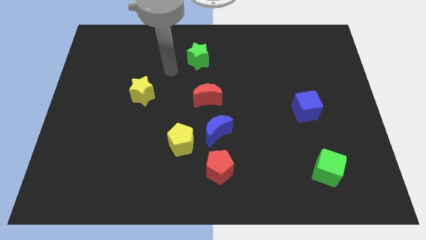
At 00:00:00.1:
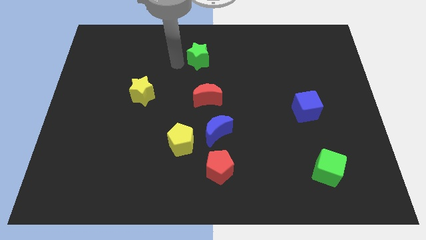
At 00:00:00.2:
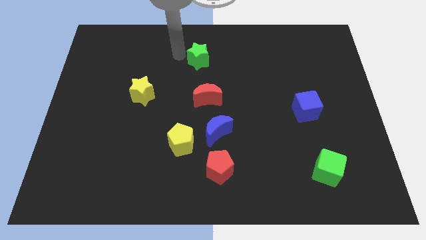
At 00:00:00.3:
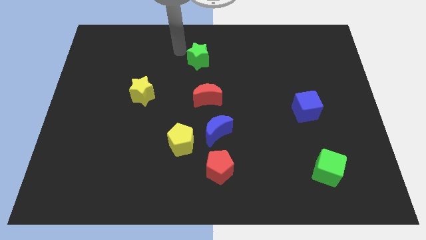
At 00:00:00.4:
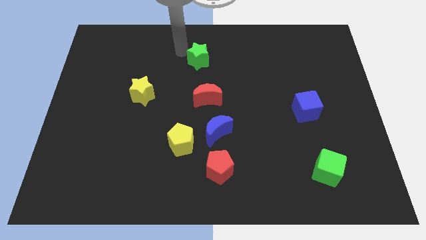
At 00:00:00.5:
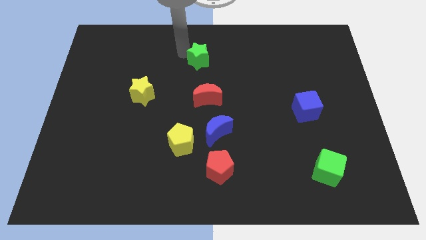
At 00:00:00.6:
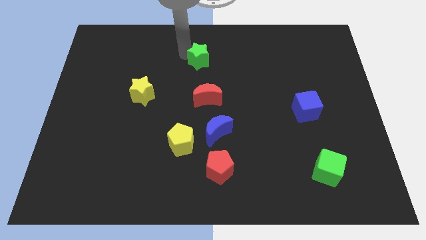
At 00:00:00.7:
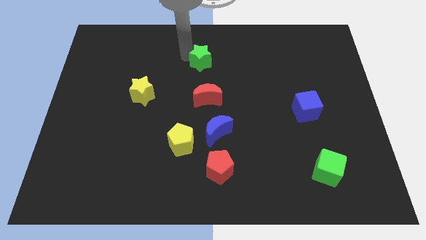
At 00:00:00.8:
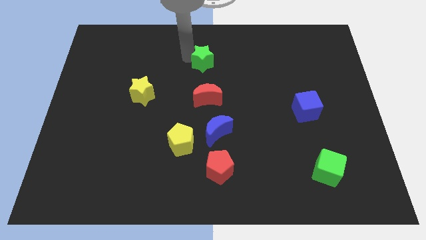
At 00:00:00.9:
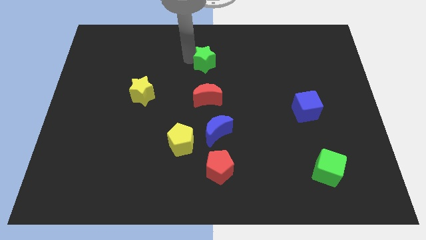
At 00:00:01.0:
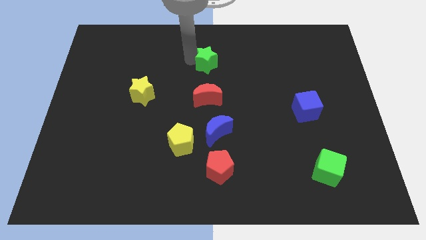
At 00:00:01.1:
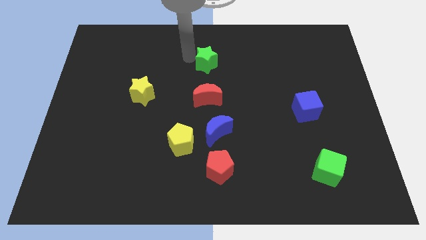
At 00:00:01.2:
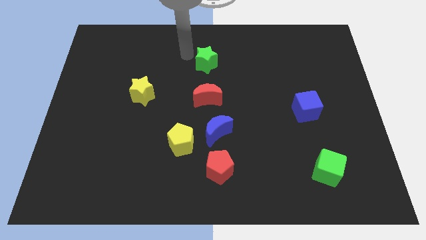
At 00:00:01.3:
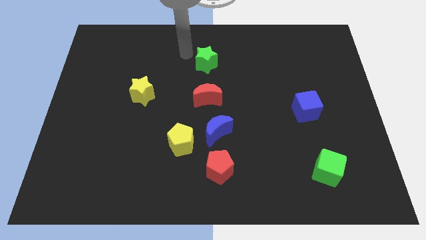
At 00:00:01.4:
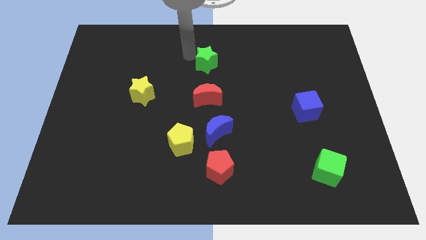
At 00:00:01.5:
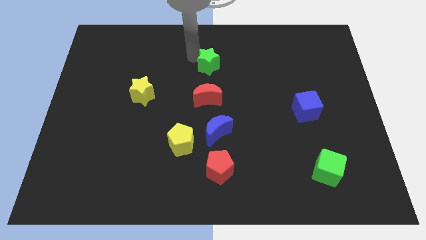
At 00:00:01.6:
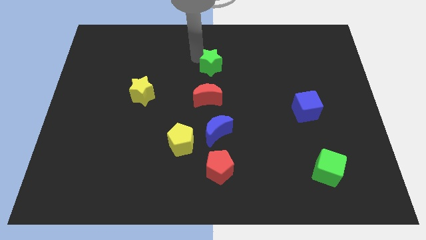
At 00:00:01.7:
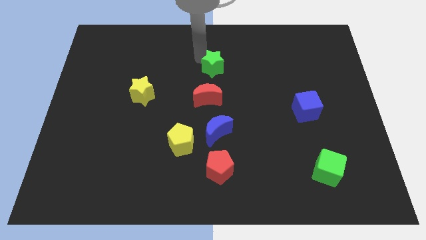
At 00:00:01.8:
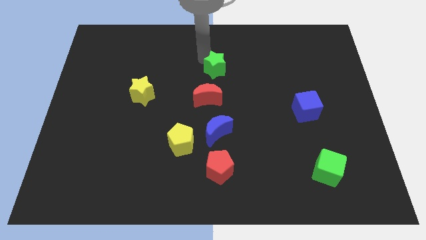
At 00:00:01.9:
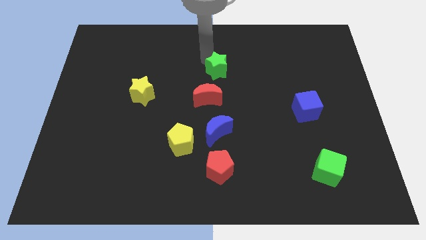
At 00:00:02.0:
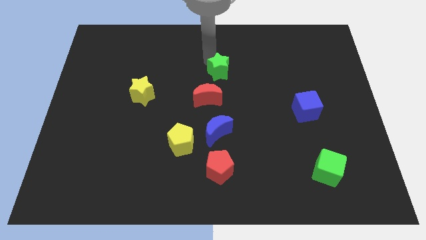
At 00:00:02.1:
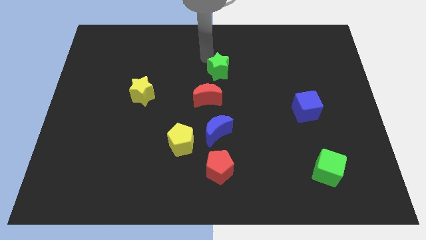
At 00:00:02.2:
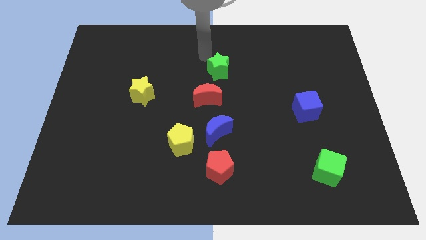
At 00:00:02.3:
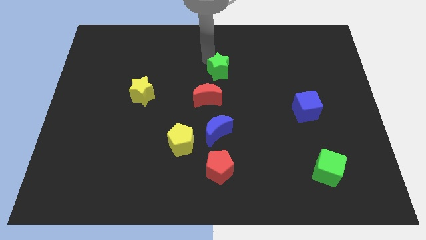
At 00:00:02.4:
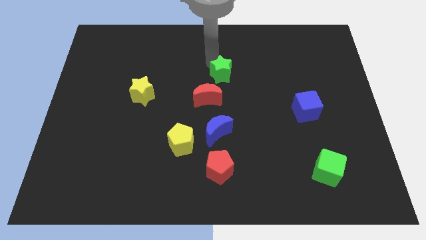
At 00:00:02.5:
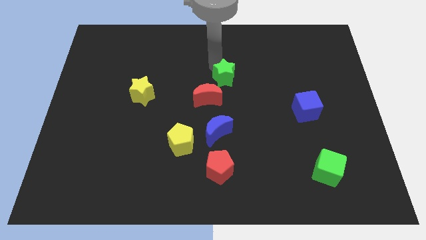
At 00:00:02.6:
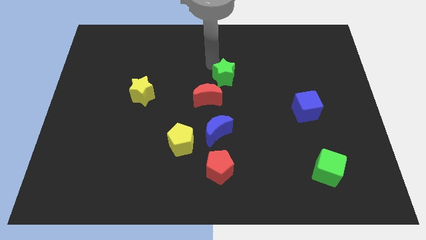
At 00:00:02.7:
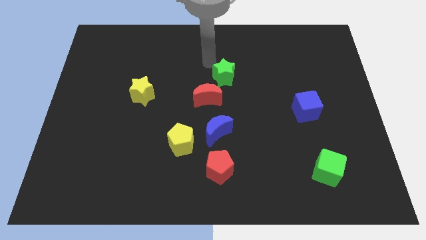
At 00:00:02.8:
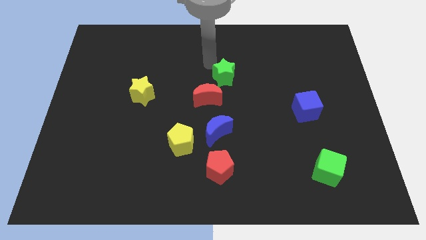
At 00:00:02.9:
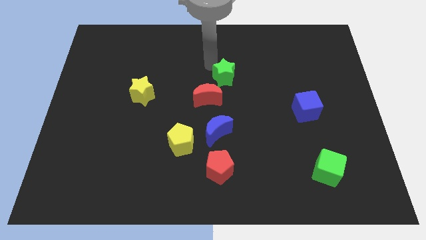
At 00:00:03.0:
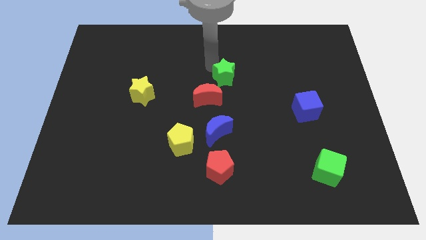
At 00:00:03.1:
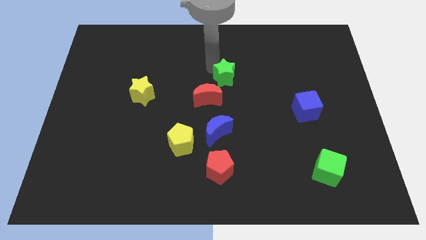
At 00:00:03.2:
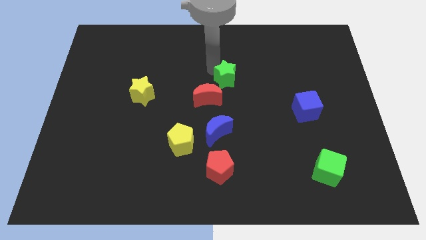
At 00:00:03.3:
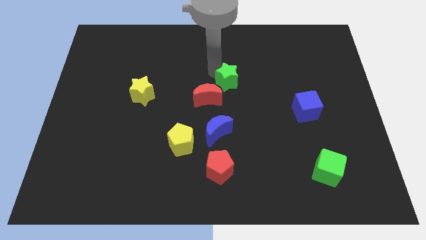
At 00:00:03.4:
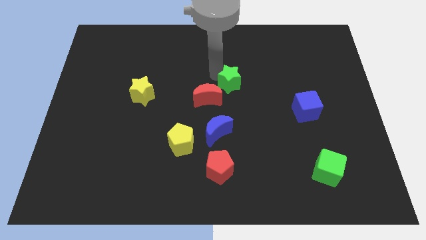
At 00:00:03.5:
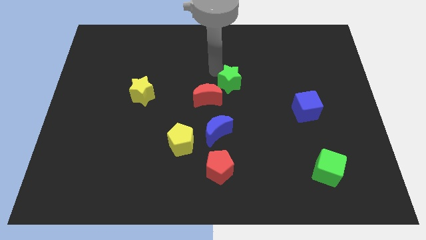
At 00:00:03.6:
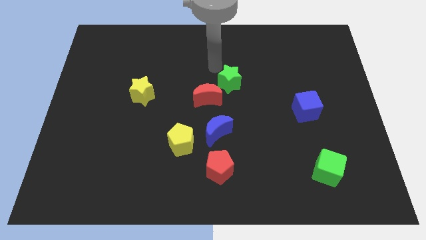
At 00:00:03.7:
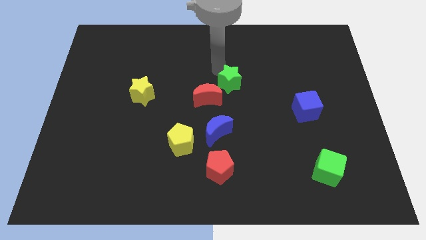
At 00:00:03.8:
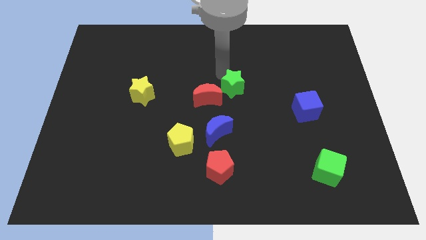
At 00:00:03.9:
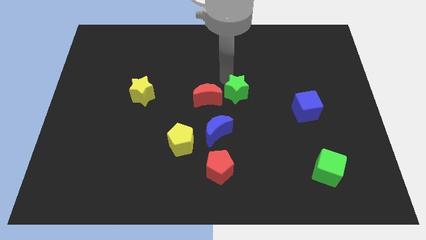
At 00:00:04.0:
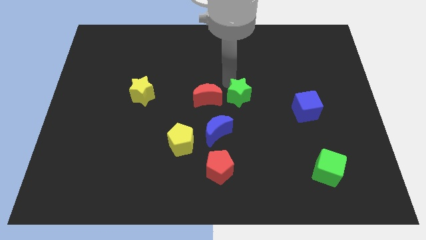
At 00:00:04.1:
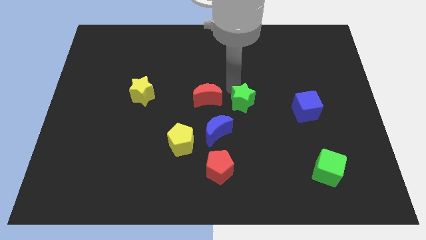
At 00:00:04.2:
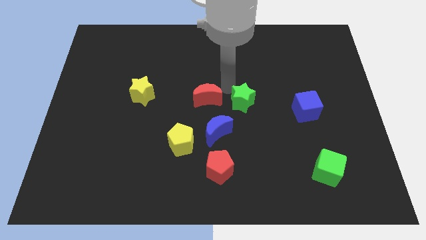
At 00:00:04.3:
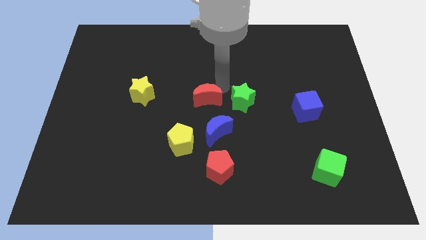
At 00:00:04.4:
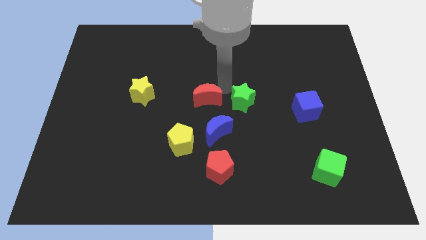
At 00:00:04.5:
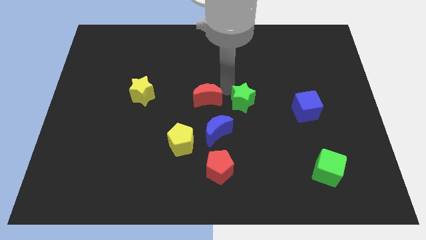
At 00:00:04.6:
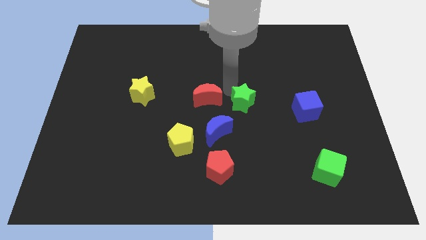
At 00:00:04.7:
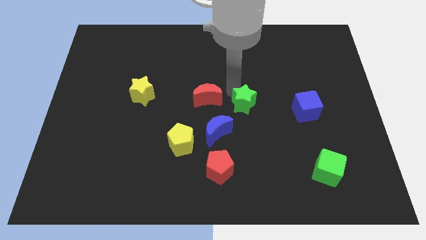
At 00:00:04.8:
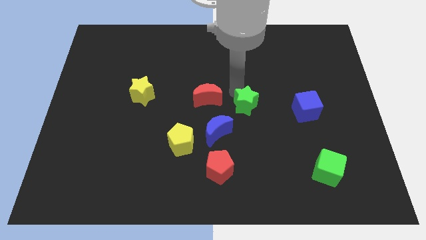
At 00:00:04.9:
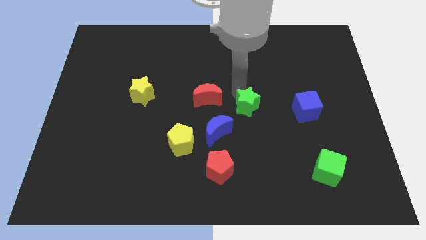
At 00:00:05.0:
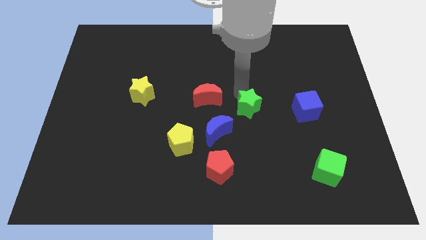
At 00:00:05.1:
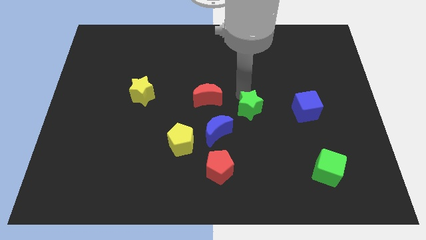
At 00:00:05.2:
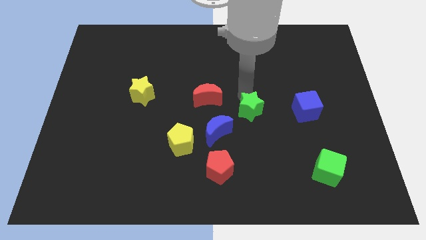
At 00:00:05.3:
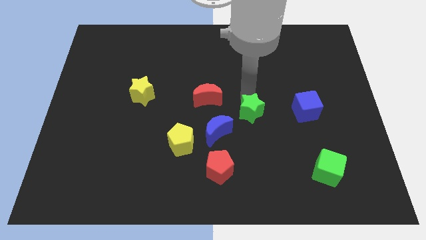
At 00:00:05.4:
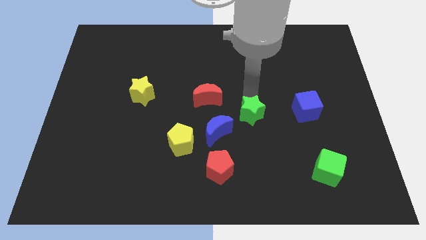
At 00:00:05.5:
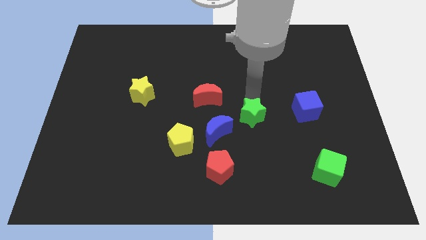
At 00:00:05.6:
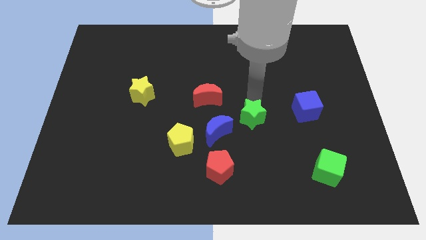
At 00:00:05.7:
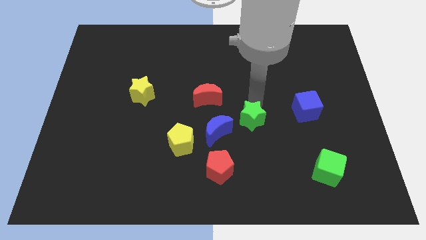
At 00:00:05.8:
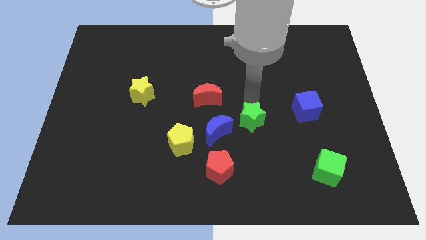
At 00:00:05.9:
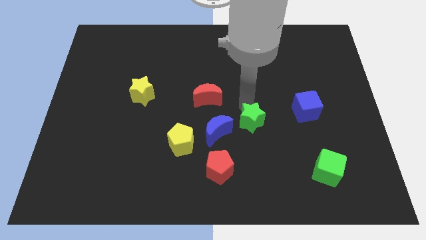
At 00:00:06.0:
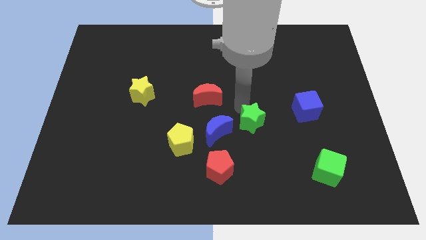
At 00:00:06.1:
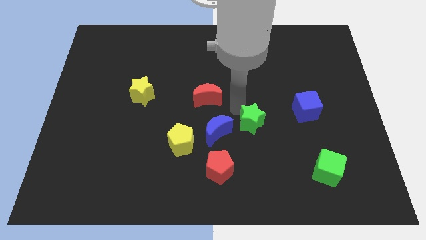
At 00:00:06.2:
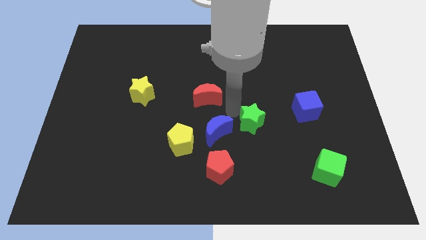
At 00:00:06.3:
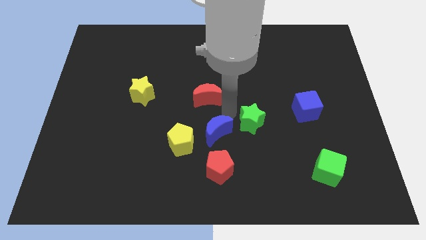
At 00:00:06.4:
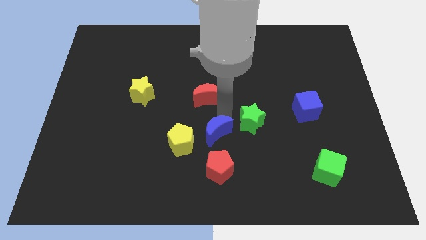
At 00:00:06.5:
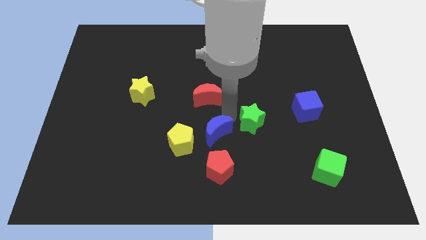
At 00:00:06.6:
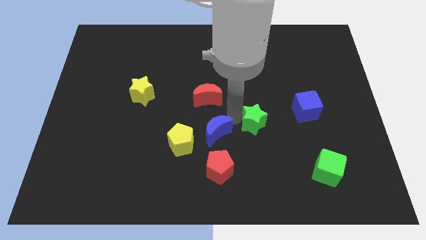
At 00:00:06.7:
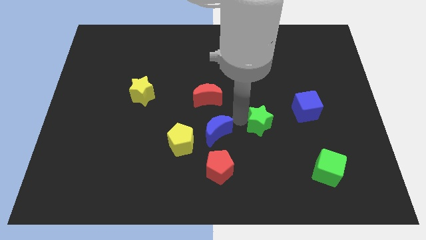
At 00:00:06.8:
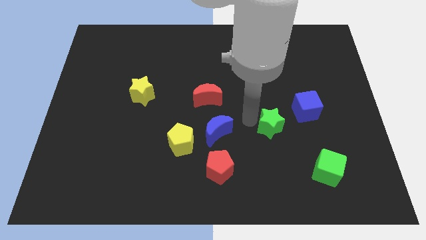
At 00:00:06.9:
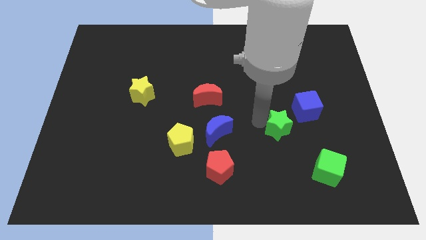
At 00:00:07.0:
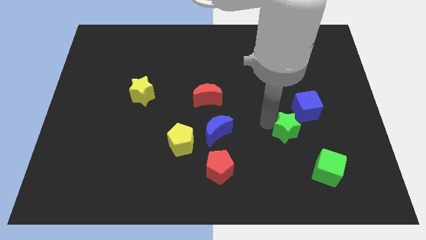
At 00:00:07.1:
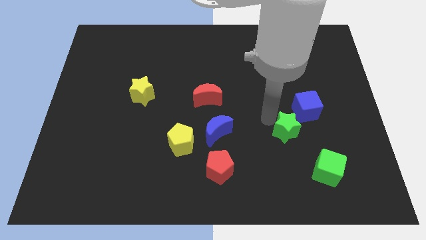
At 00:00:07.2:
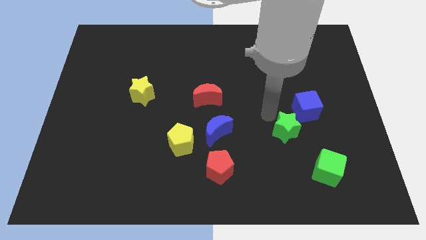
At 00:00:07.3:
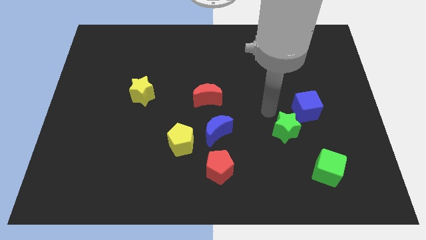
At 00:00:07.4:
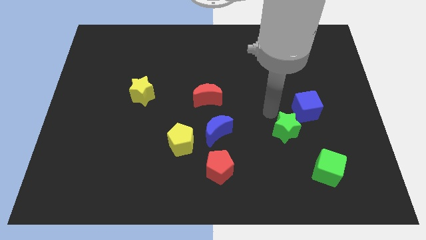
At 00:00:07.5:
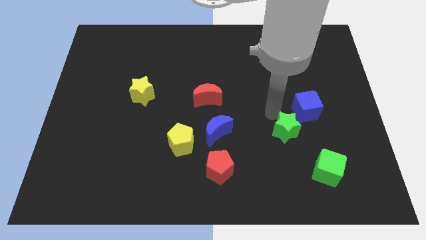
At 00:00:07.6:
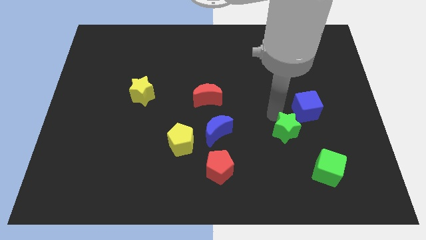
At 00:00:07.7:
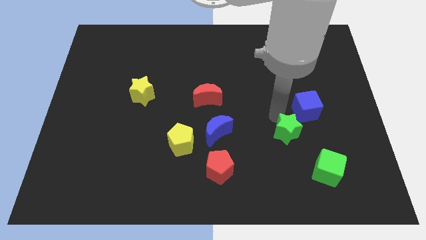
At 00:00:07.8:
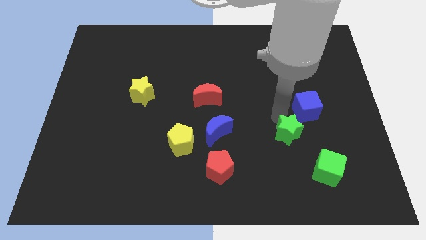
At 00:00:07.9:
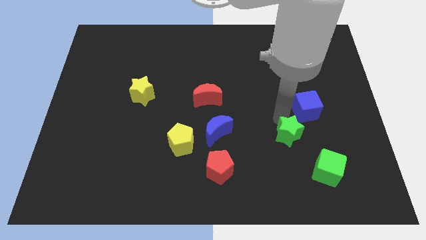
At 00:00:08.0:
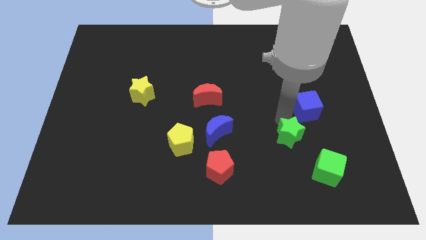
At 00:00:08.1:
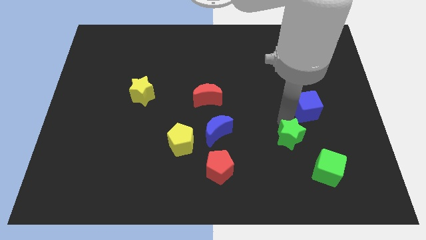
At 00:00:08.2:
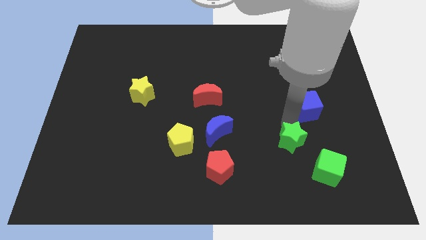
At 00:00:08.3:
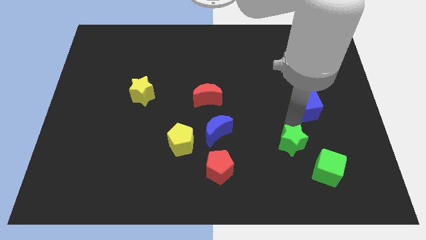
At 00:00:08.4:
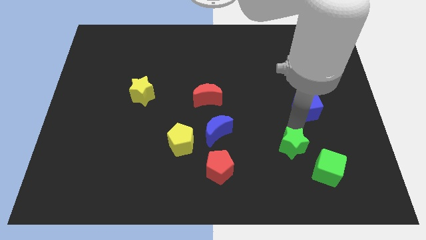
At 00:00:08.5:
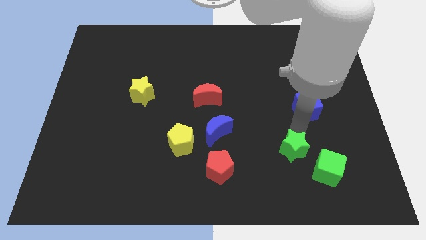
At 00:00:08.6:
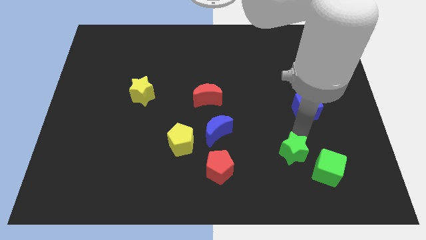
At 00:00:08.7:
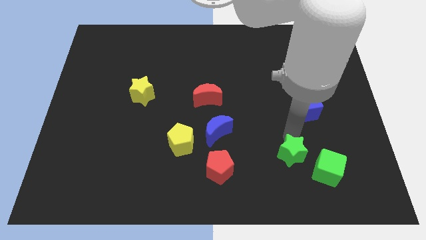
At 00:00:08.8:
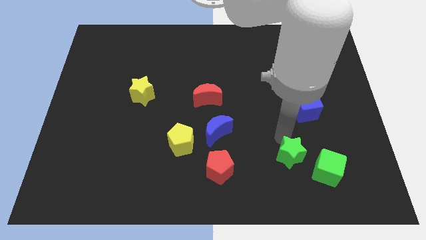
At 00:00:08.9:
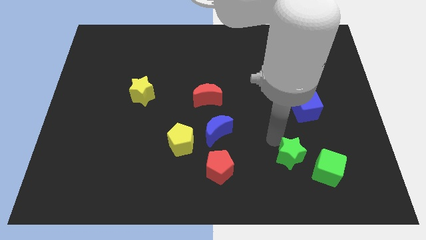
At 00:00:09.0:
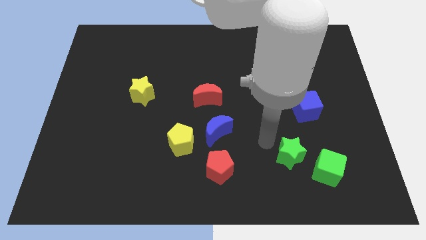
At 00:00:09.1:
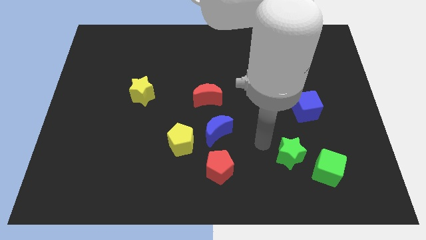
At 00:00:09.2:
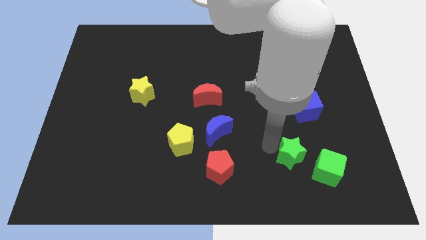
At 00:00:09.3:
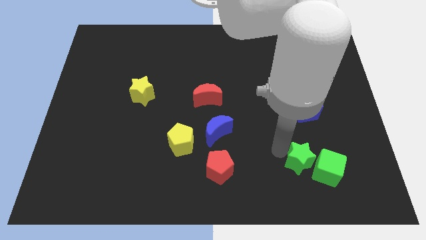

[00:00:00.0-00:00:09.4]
push the green star next to the green cube
